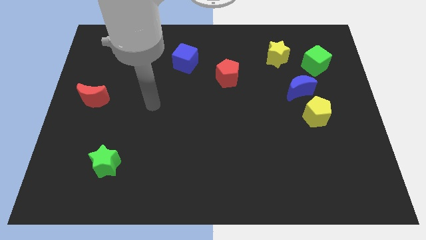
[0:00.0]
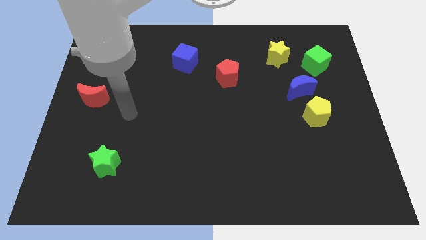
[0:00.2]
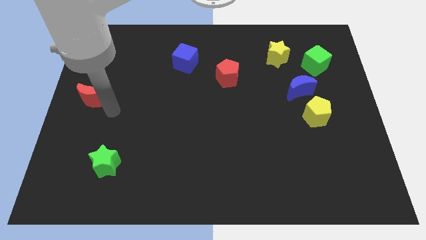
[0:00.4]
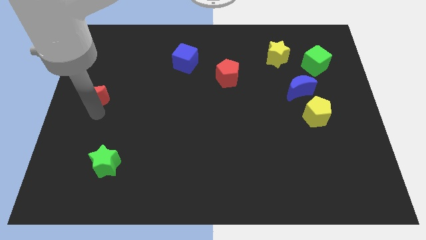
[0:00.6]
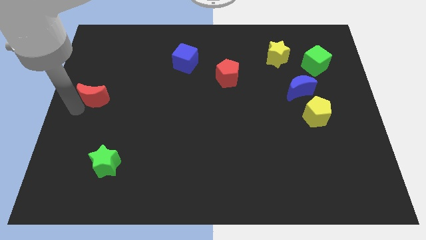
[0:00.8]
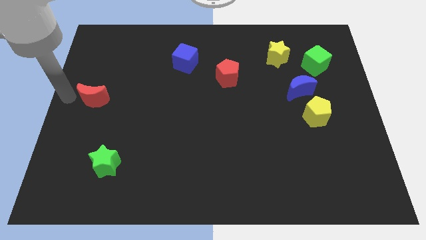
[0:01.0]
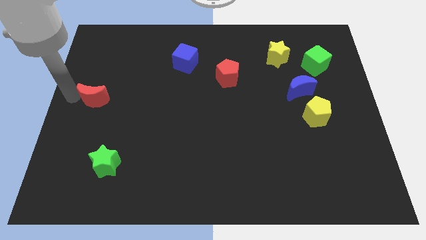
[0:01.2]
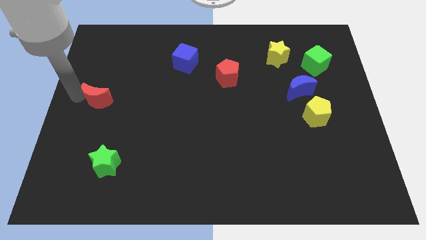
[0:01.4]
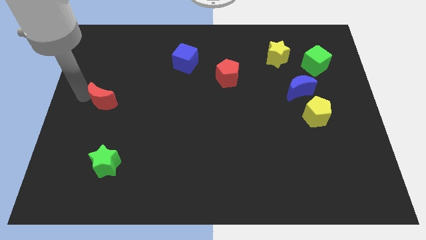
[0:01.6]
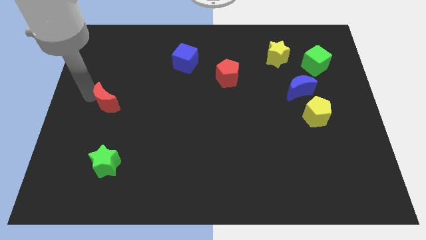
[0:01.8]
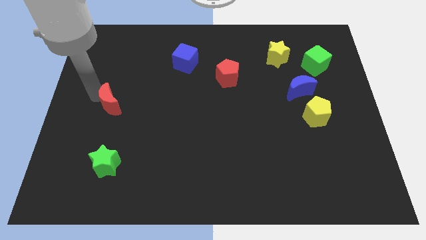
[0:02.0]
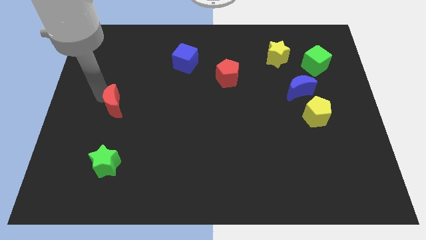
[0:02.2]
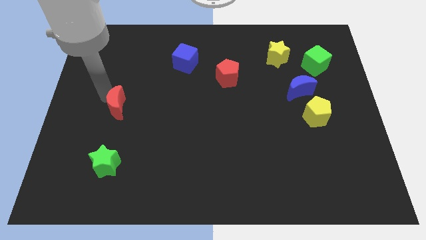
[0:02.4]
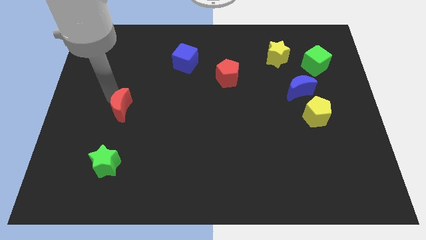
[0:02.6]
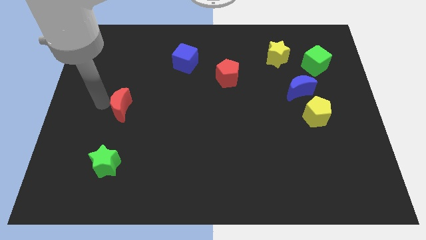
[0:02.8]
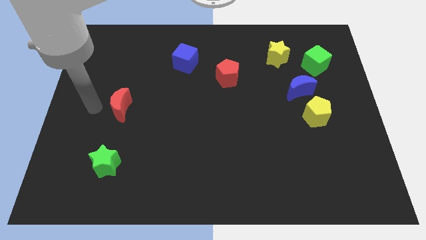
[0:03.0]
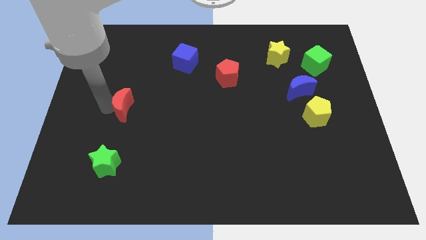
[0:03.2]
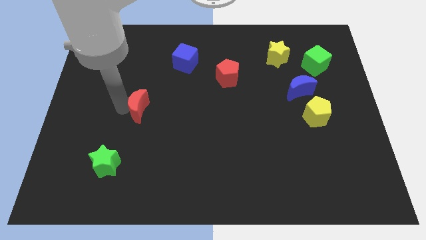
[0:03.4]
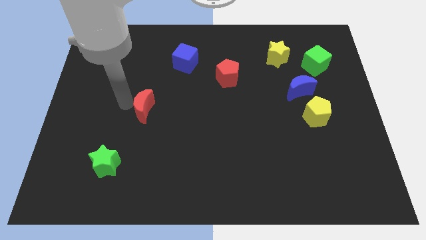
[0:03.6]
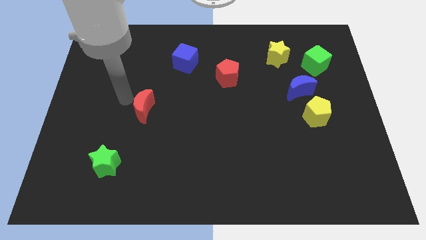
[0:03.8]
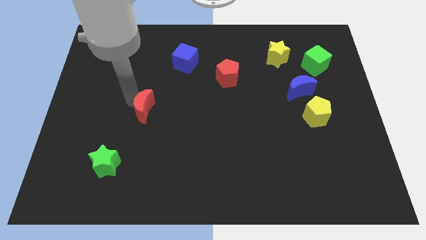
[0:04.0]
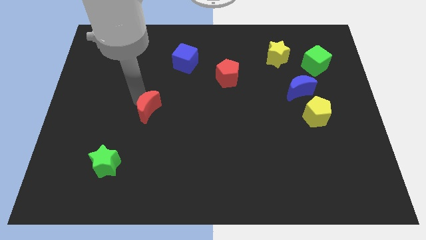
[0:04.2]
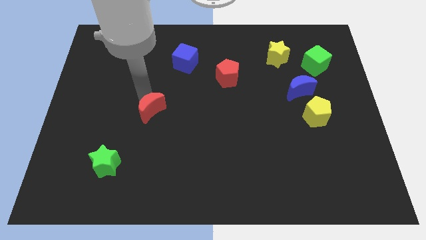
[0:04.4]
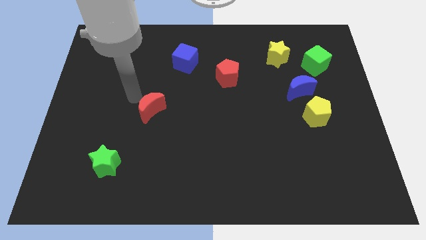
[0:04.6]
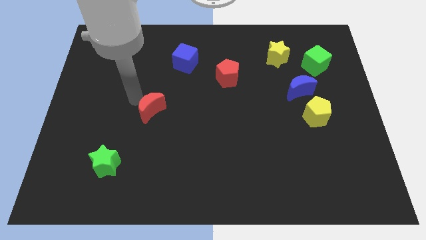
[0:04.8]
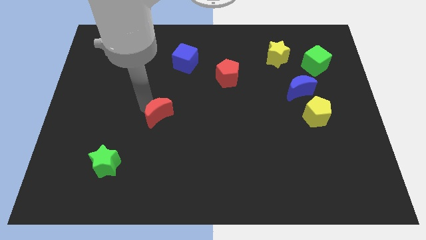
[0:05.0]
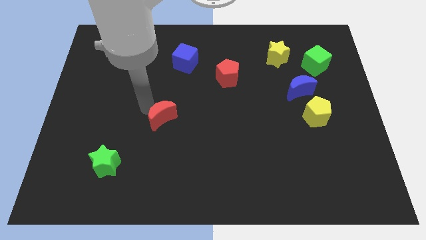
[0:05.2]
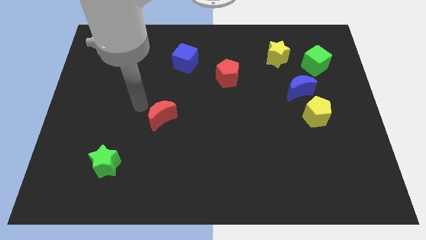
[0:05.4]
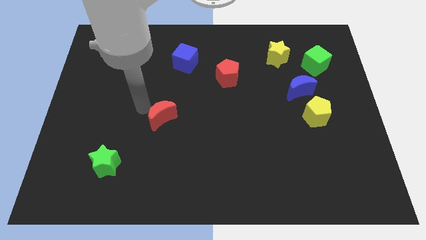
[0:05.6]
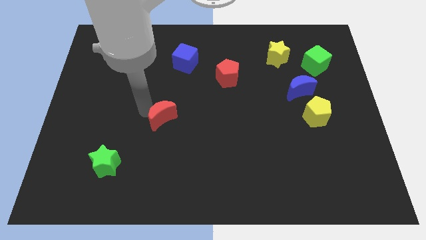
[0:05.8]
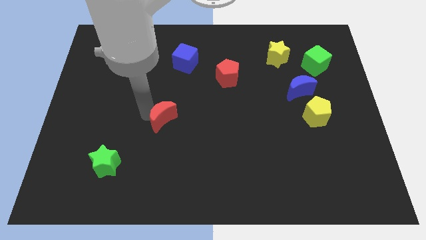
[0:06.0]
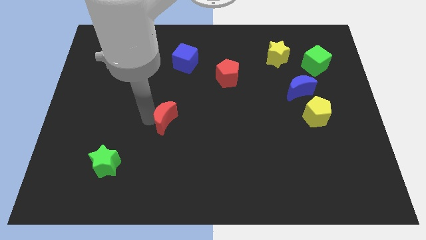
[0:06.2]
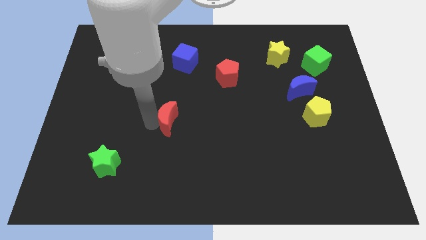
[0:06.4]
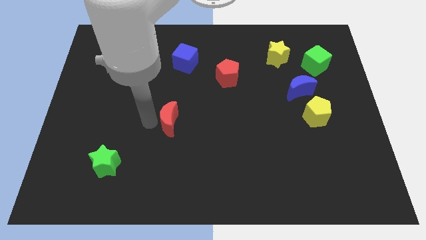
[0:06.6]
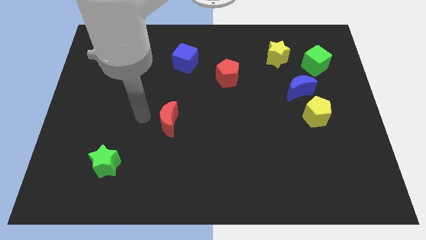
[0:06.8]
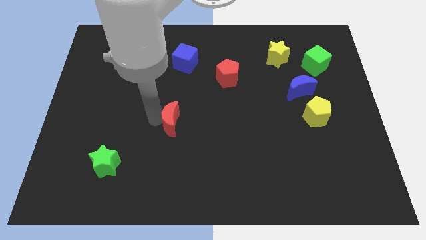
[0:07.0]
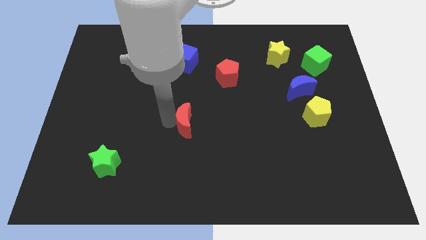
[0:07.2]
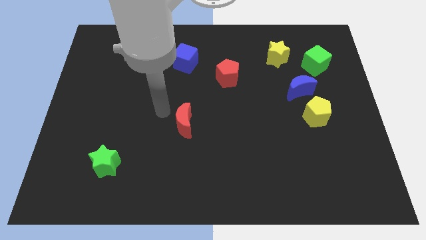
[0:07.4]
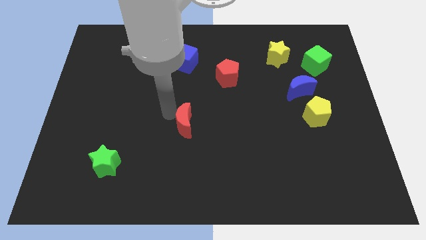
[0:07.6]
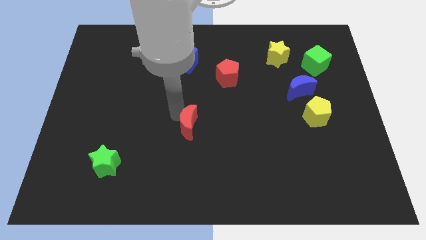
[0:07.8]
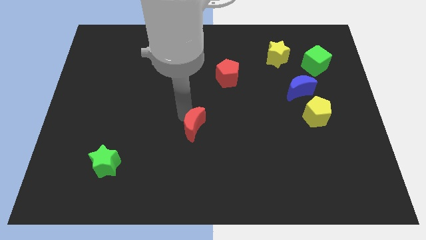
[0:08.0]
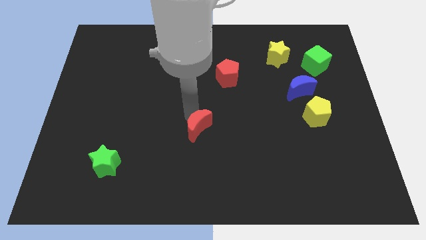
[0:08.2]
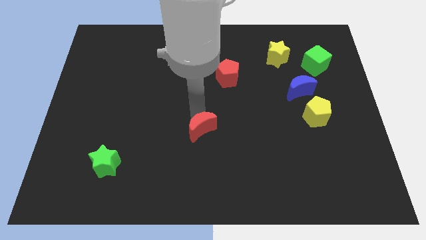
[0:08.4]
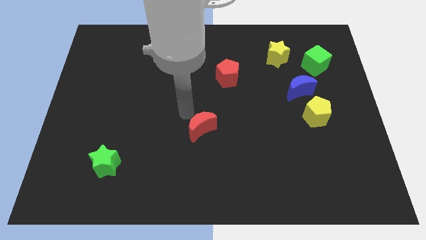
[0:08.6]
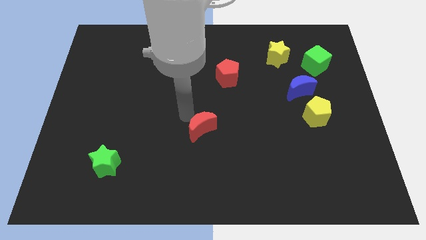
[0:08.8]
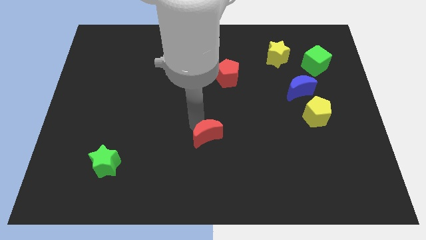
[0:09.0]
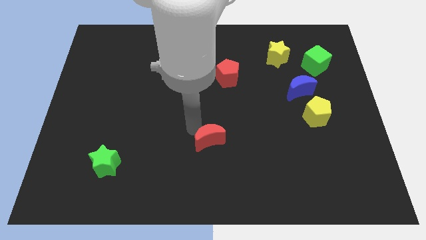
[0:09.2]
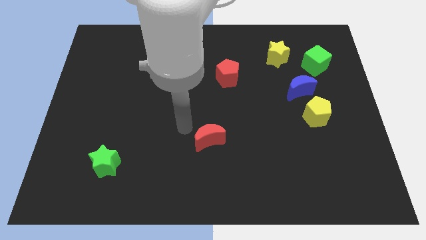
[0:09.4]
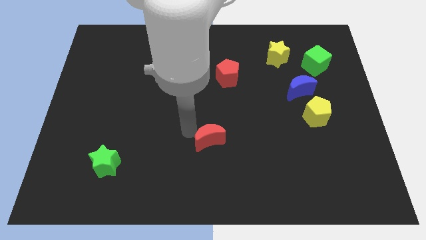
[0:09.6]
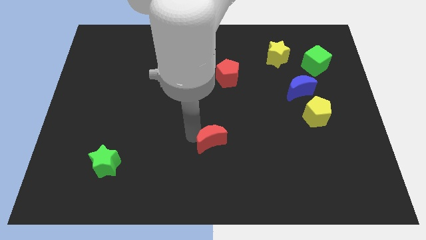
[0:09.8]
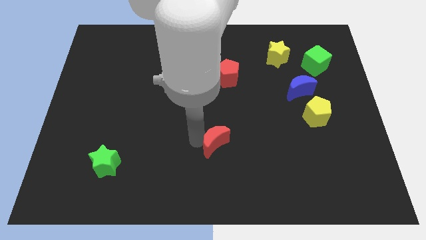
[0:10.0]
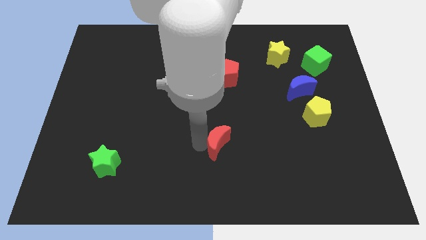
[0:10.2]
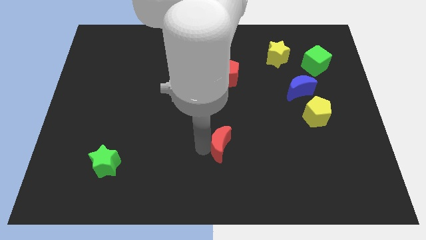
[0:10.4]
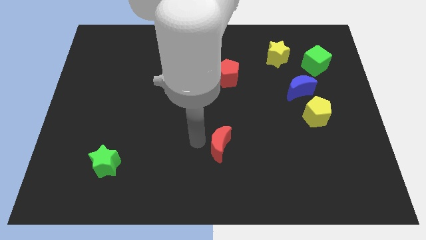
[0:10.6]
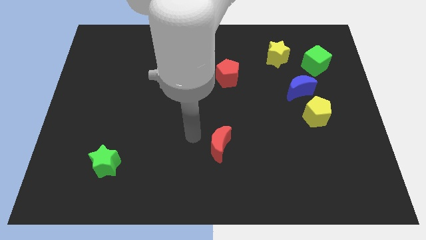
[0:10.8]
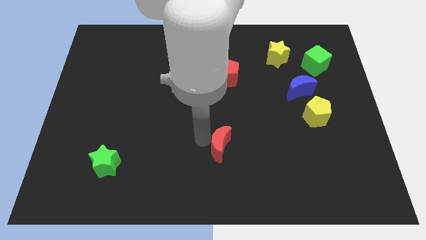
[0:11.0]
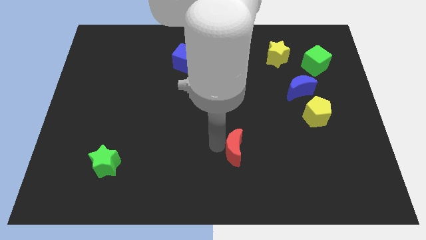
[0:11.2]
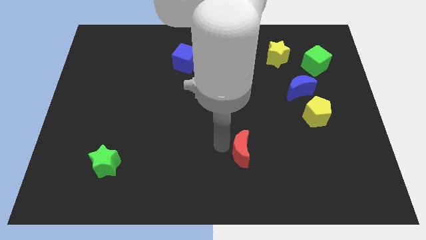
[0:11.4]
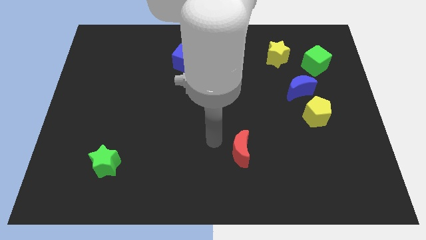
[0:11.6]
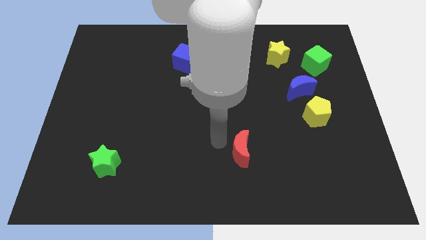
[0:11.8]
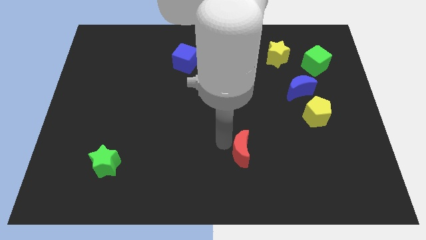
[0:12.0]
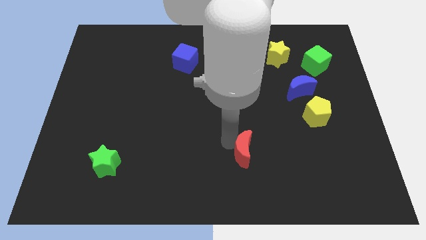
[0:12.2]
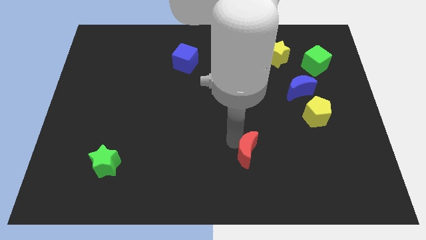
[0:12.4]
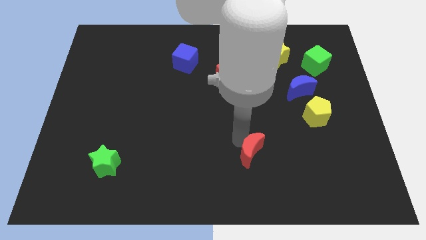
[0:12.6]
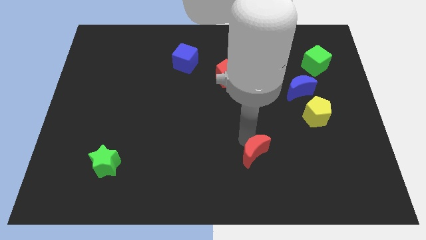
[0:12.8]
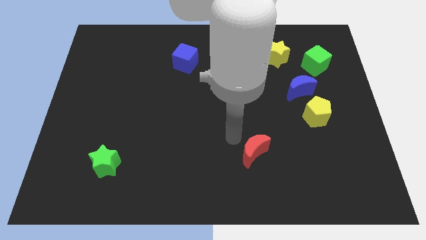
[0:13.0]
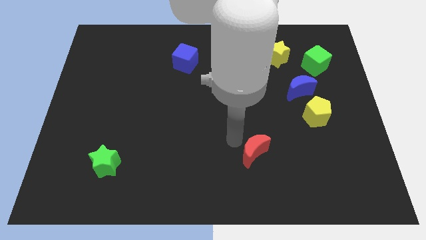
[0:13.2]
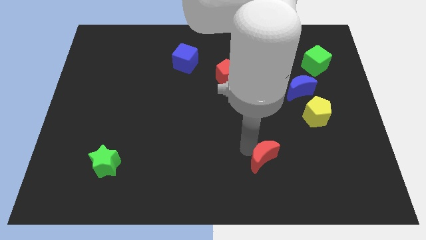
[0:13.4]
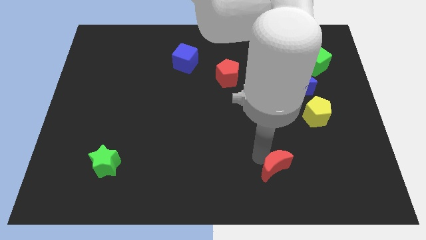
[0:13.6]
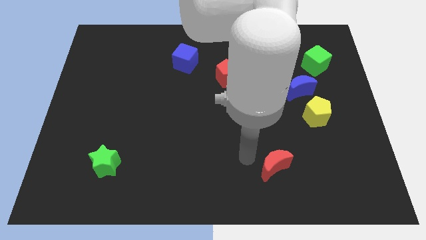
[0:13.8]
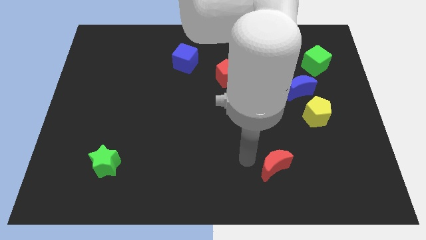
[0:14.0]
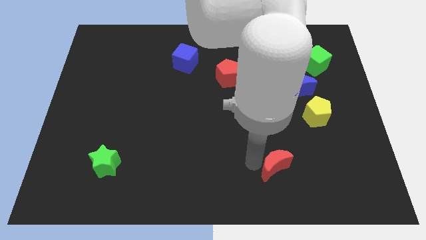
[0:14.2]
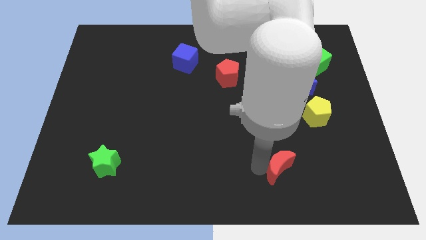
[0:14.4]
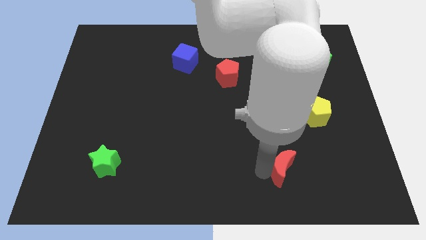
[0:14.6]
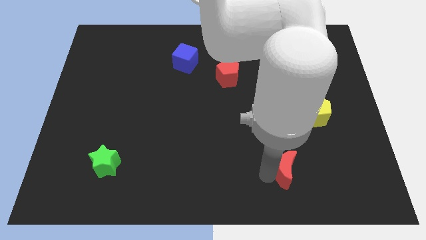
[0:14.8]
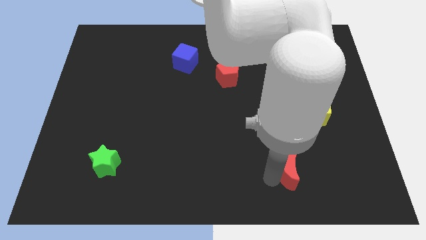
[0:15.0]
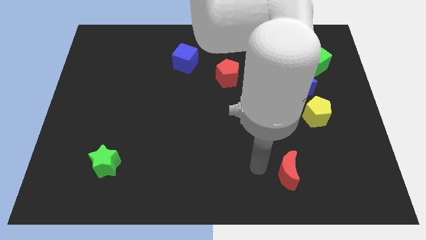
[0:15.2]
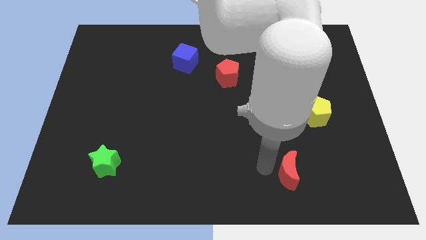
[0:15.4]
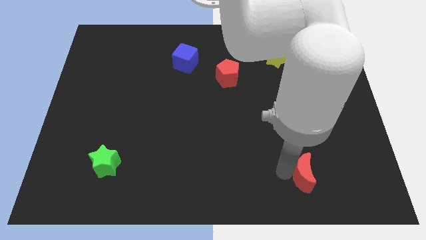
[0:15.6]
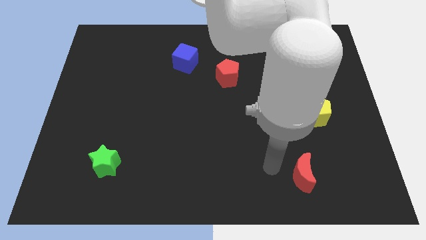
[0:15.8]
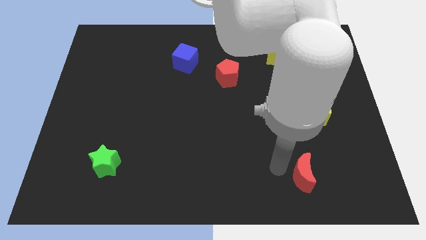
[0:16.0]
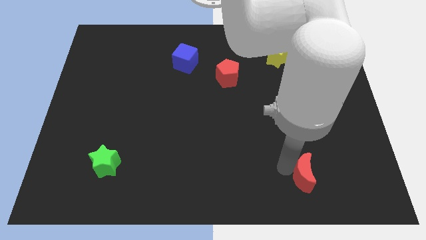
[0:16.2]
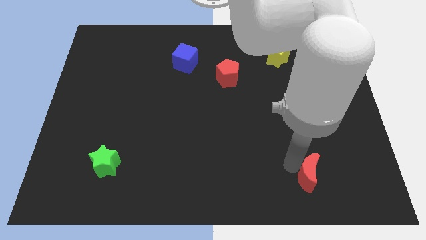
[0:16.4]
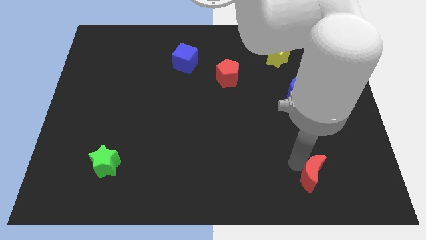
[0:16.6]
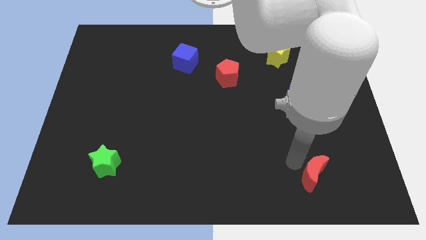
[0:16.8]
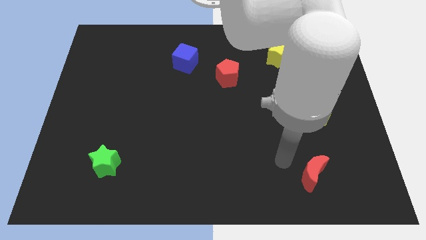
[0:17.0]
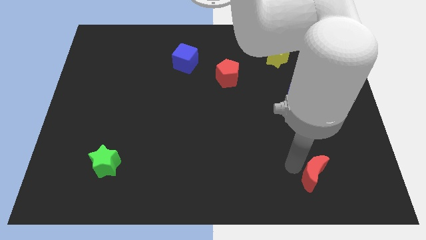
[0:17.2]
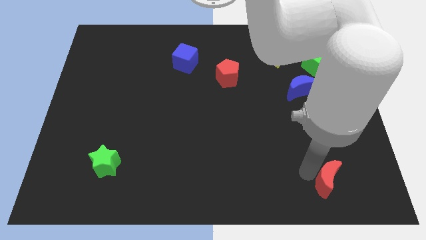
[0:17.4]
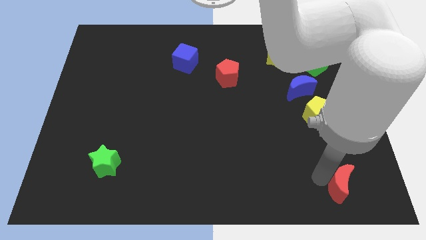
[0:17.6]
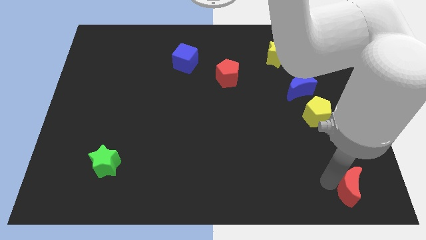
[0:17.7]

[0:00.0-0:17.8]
push the red moon to the bottom right corner
